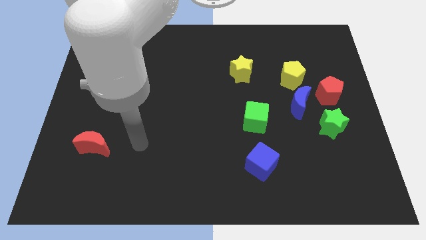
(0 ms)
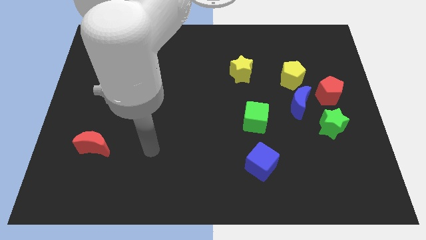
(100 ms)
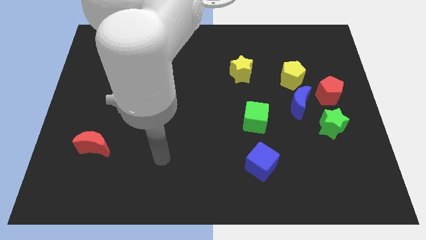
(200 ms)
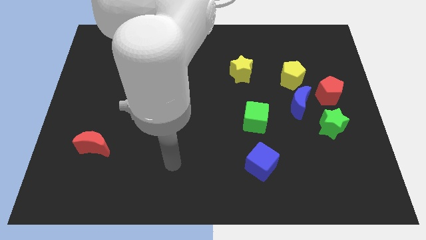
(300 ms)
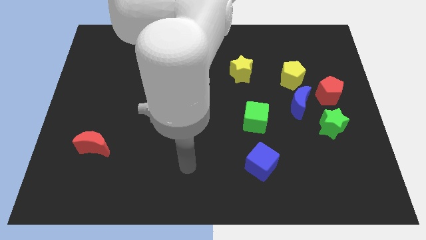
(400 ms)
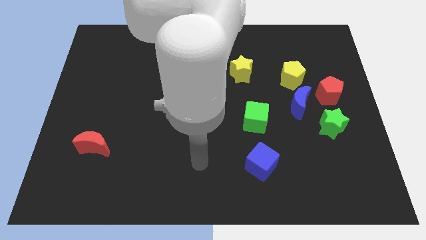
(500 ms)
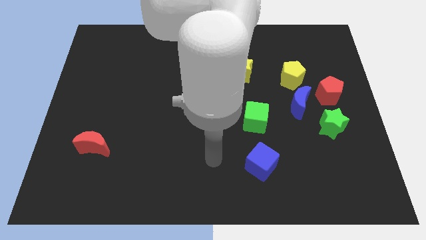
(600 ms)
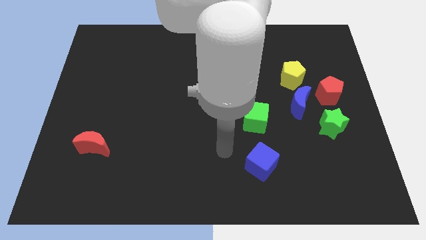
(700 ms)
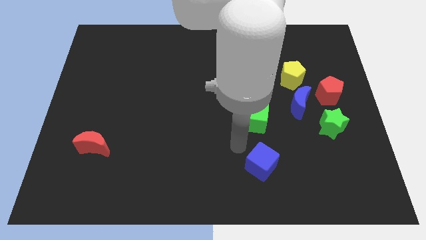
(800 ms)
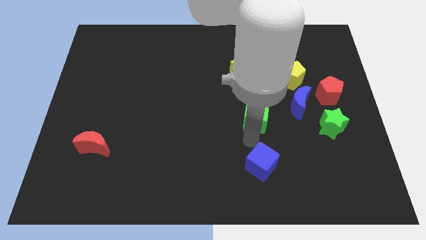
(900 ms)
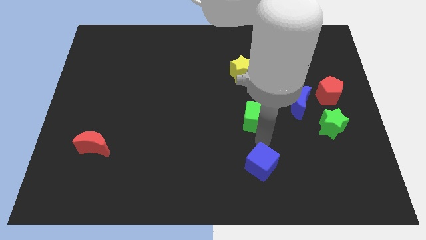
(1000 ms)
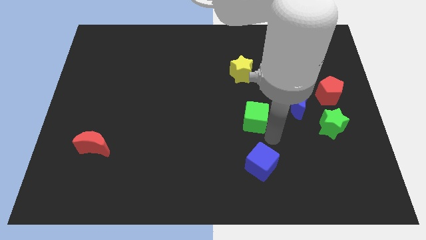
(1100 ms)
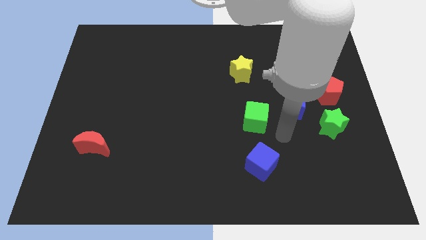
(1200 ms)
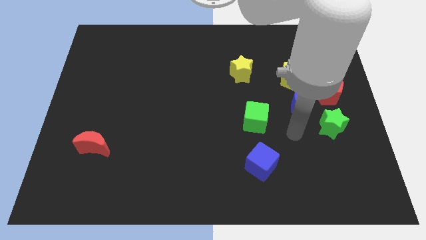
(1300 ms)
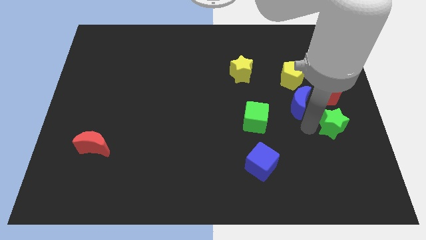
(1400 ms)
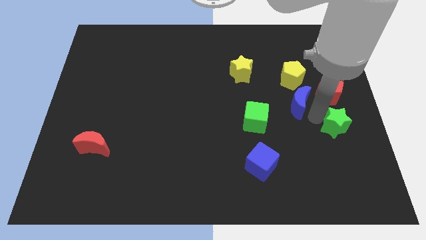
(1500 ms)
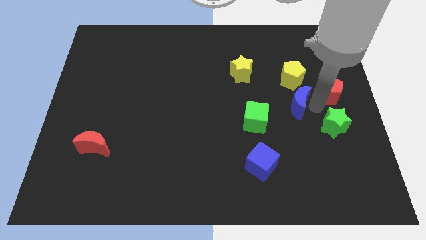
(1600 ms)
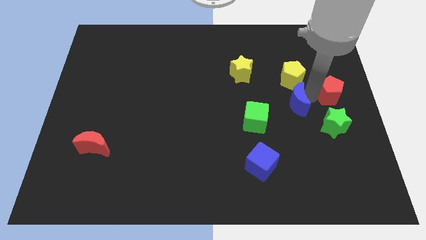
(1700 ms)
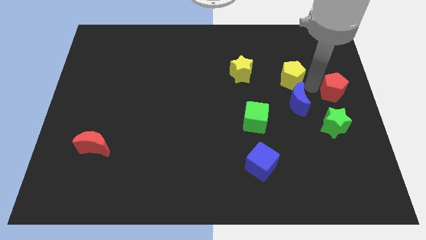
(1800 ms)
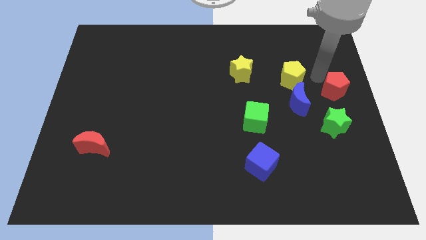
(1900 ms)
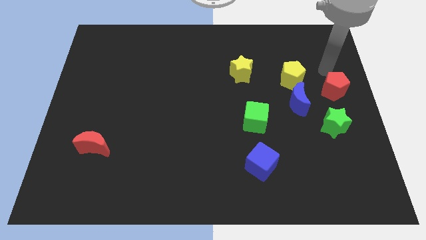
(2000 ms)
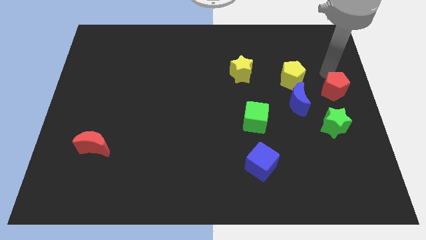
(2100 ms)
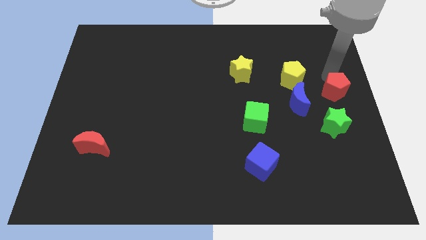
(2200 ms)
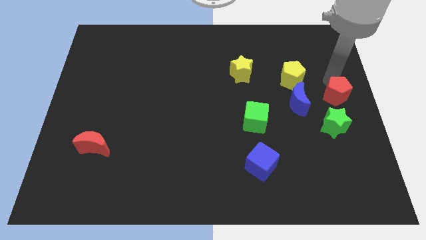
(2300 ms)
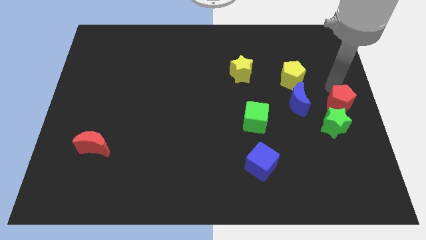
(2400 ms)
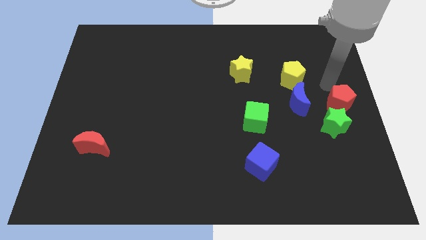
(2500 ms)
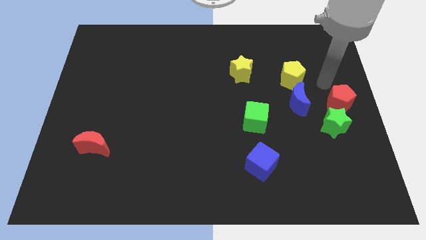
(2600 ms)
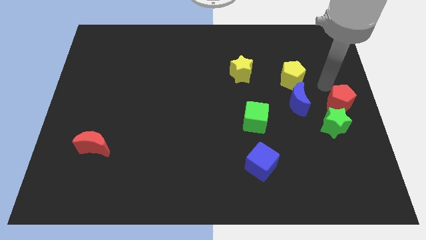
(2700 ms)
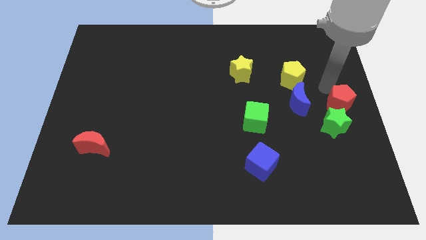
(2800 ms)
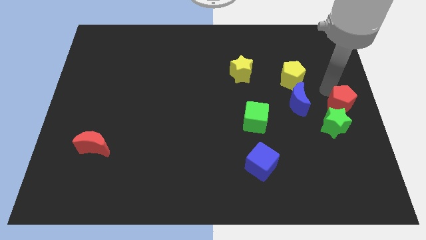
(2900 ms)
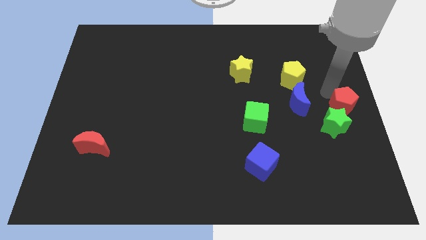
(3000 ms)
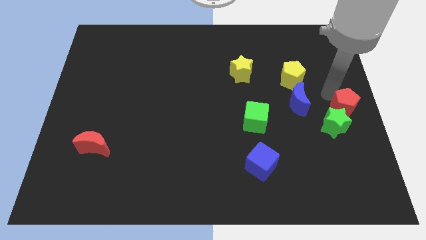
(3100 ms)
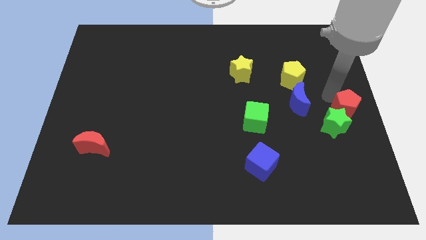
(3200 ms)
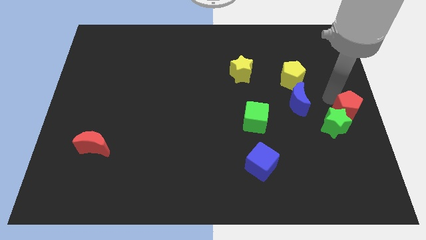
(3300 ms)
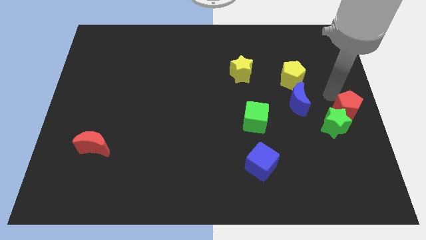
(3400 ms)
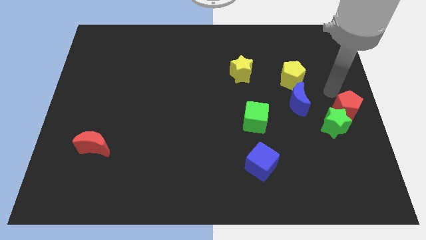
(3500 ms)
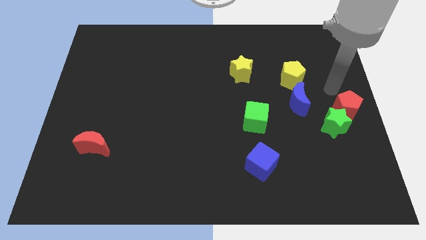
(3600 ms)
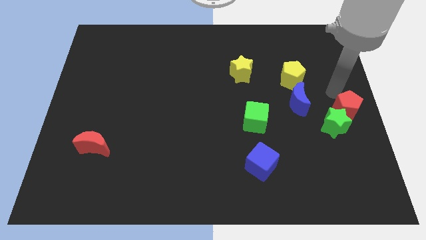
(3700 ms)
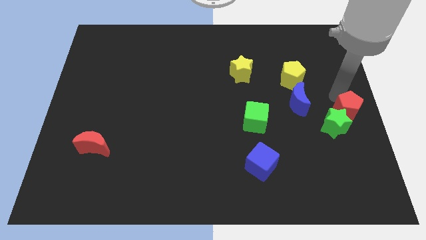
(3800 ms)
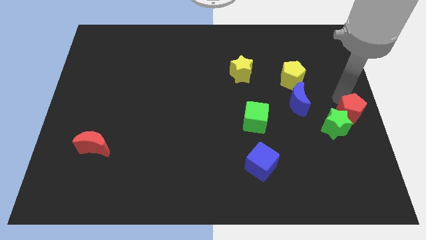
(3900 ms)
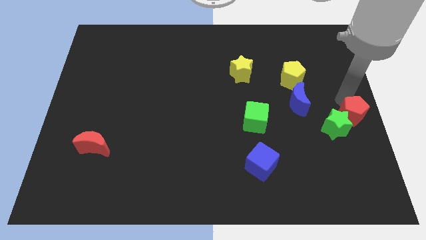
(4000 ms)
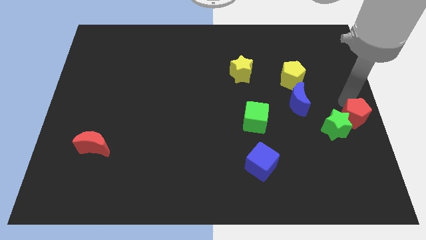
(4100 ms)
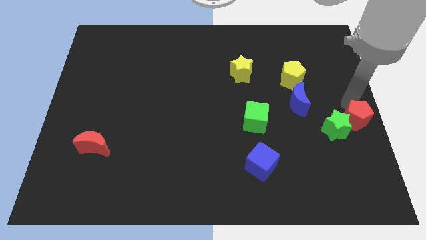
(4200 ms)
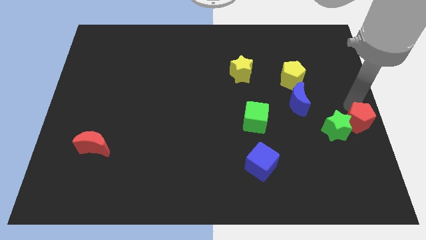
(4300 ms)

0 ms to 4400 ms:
slightly move the red pentagon downwards

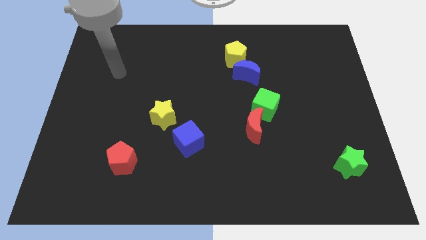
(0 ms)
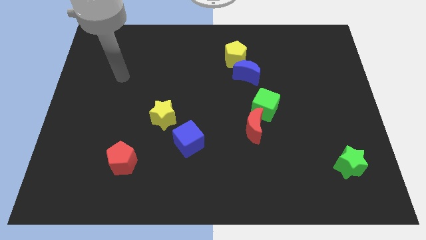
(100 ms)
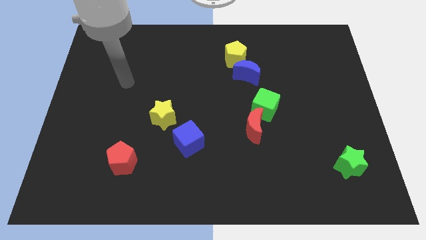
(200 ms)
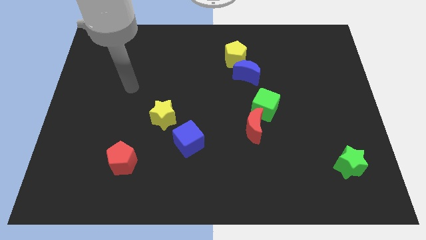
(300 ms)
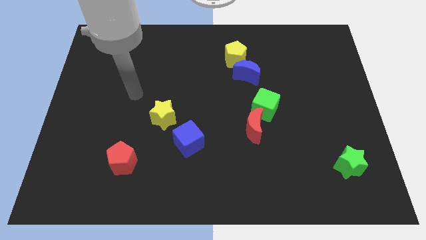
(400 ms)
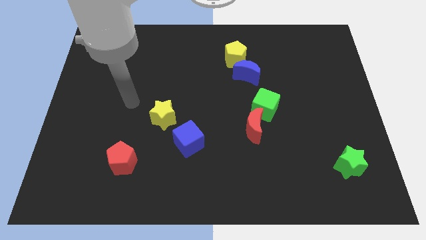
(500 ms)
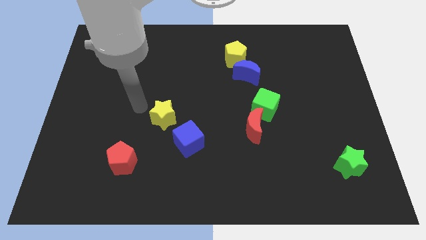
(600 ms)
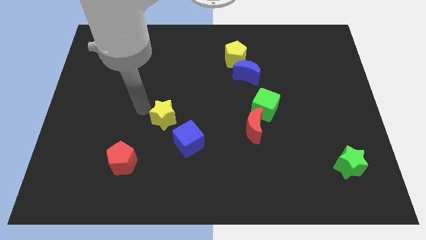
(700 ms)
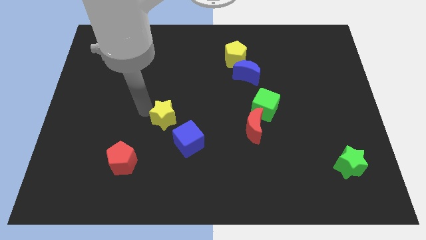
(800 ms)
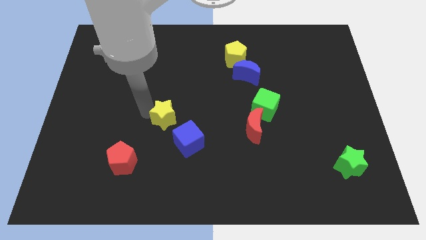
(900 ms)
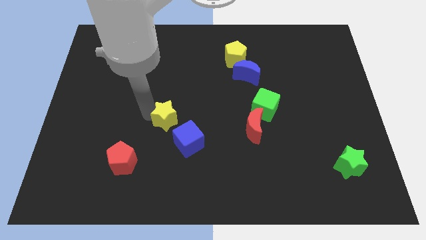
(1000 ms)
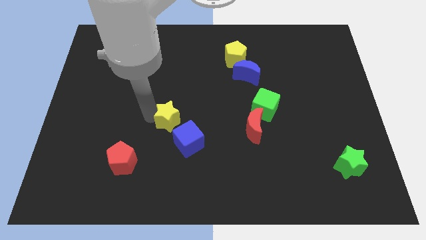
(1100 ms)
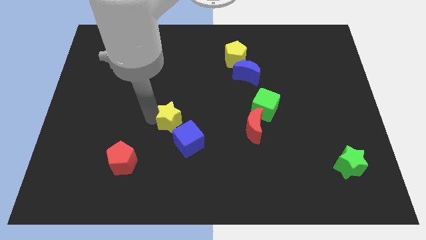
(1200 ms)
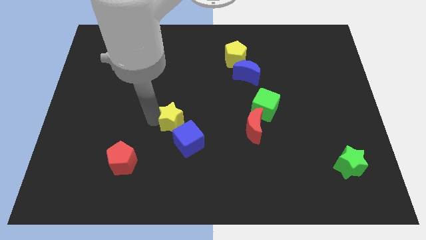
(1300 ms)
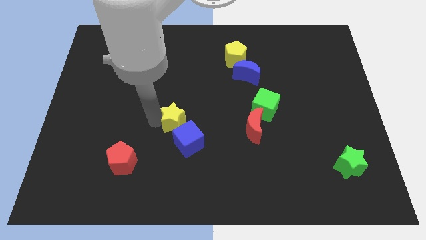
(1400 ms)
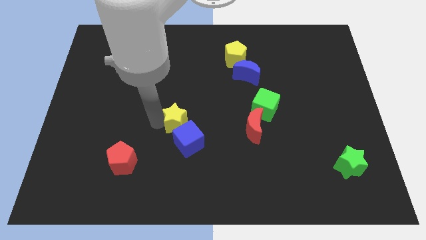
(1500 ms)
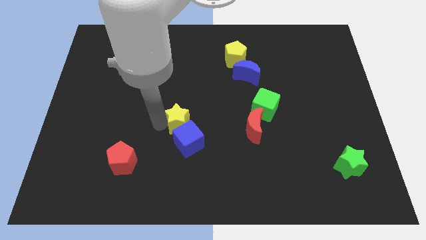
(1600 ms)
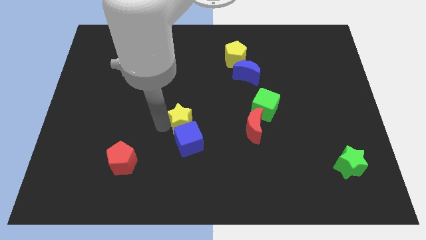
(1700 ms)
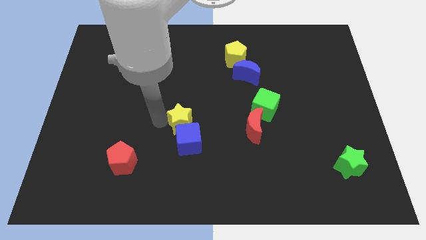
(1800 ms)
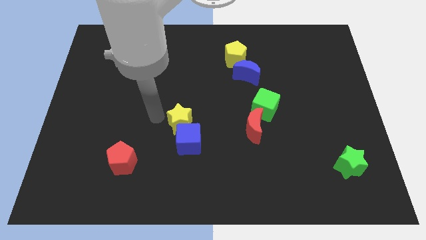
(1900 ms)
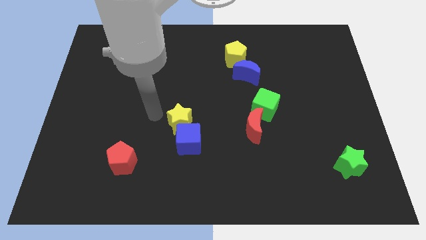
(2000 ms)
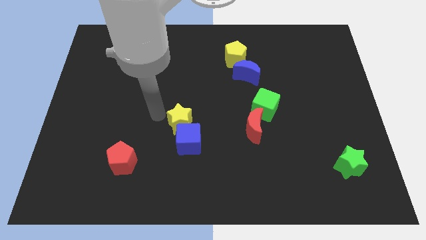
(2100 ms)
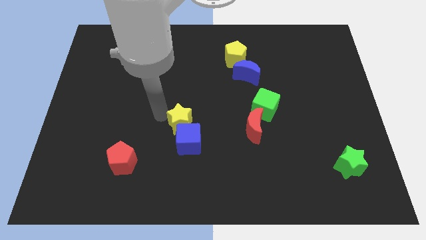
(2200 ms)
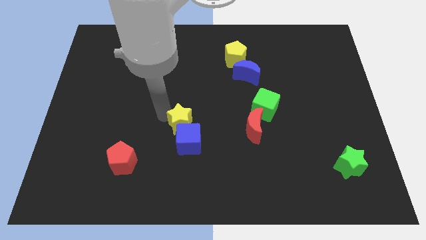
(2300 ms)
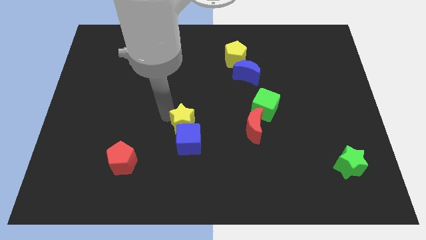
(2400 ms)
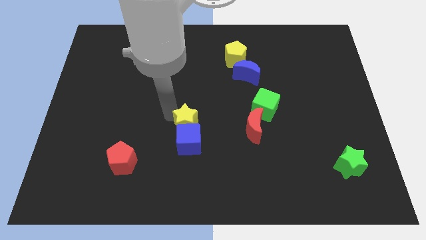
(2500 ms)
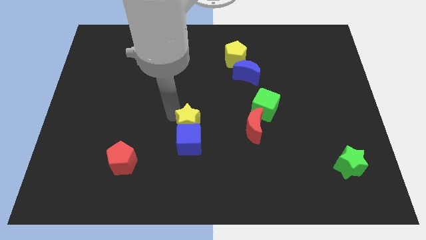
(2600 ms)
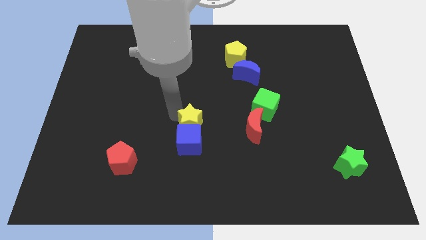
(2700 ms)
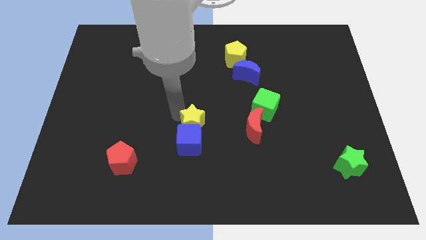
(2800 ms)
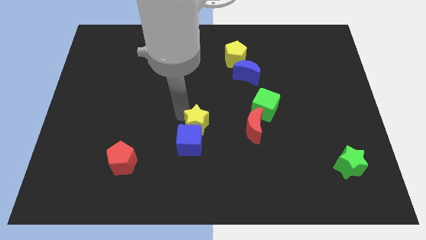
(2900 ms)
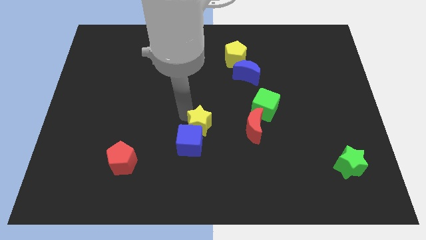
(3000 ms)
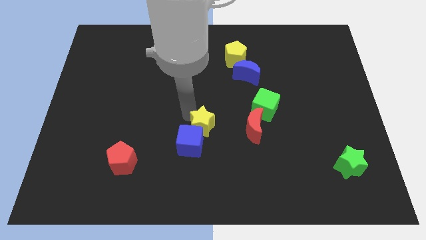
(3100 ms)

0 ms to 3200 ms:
move the yellow star downwards and to the right diagonally a little

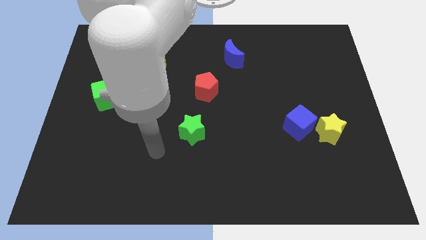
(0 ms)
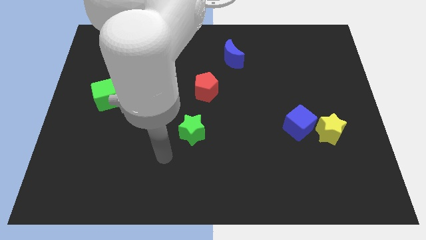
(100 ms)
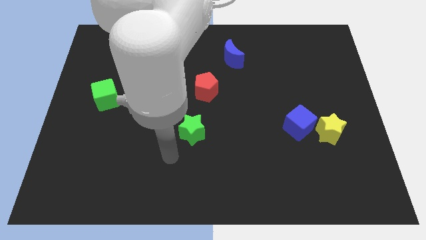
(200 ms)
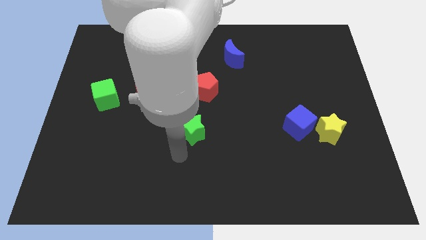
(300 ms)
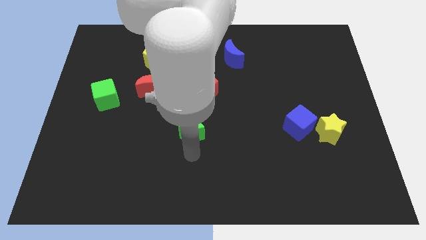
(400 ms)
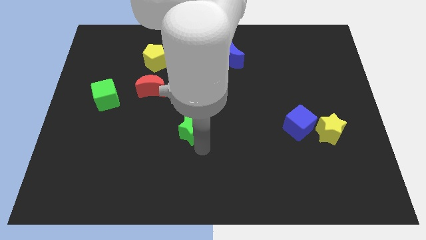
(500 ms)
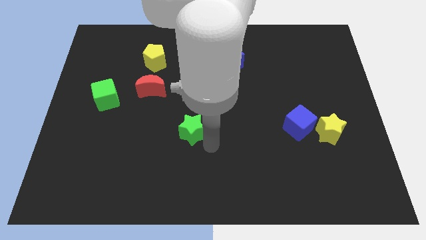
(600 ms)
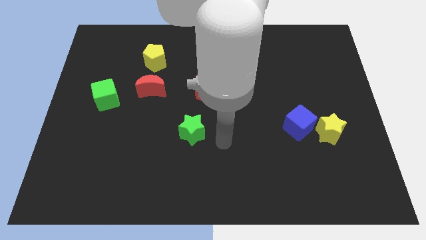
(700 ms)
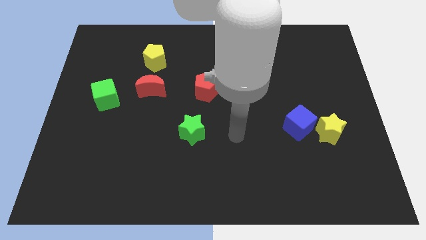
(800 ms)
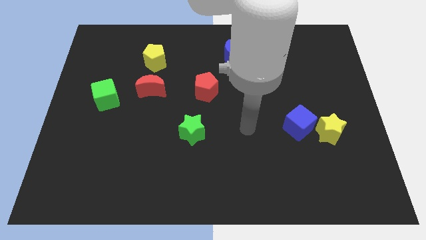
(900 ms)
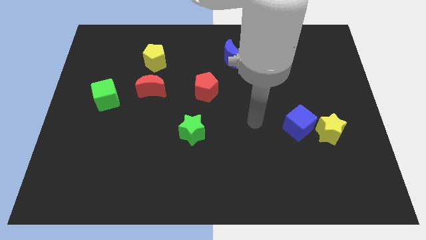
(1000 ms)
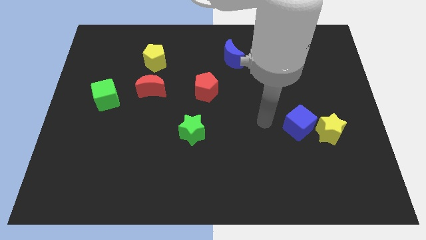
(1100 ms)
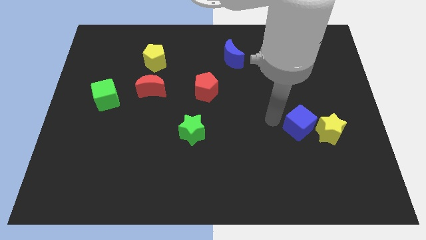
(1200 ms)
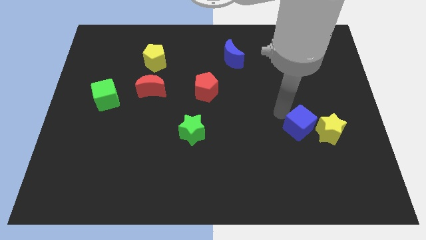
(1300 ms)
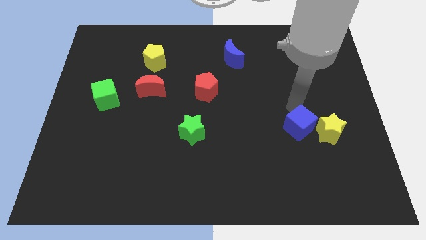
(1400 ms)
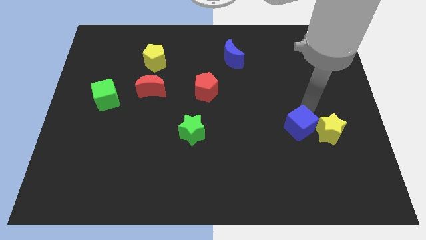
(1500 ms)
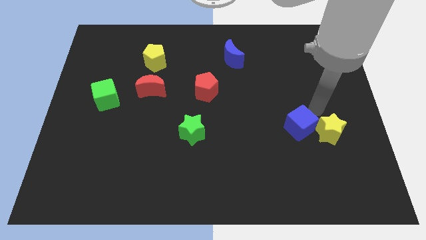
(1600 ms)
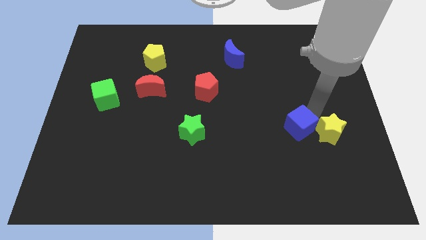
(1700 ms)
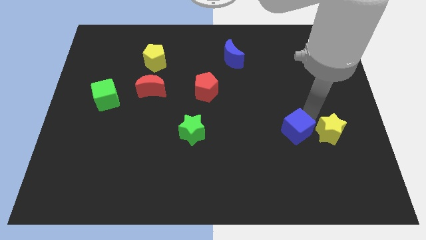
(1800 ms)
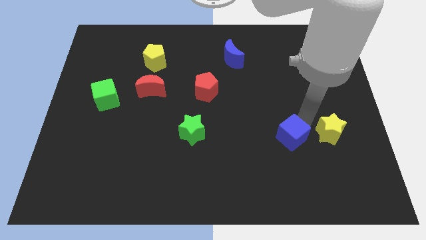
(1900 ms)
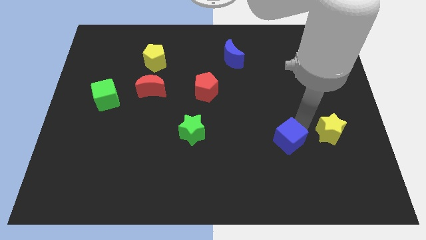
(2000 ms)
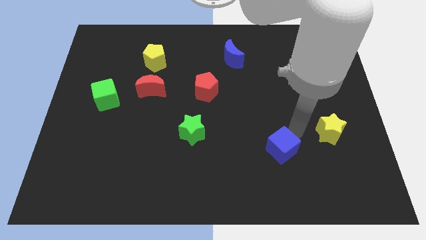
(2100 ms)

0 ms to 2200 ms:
slightly slide the blue cube diagonally downwards and to the left
